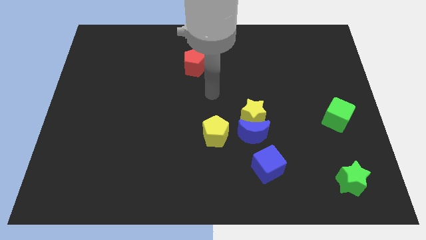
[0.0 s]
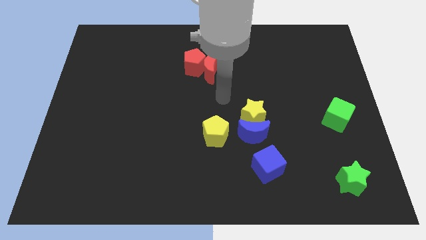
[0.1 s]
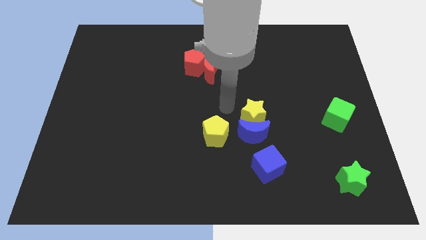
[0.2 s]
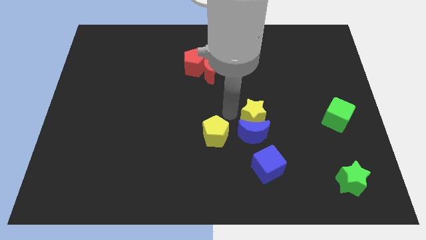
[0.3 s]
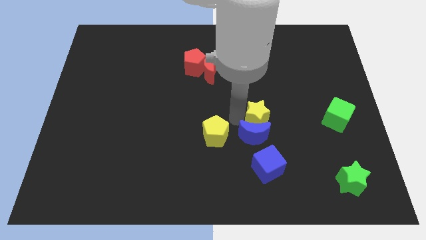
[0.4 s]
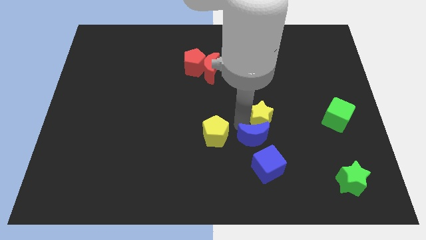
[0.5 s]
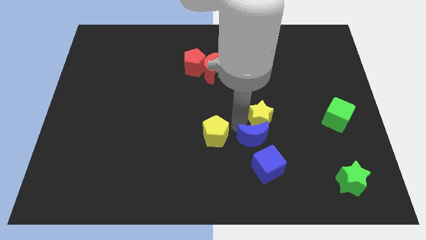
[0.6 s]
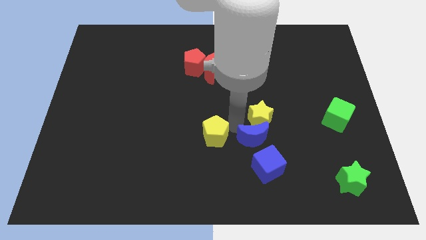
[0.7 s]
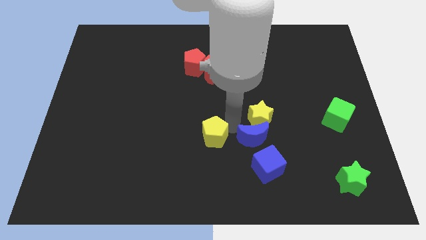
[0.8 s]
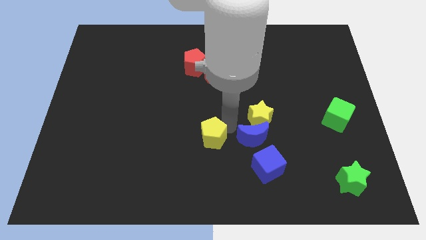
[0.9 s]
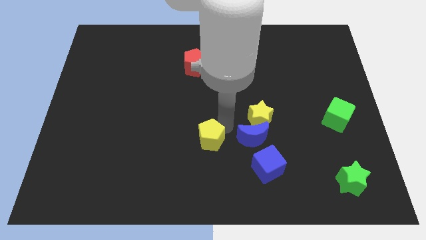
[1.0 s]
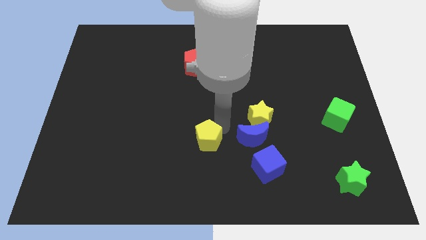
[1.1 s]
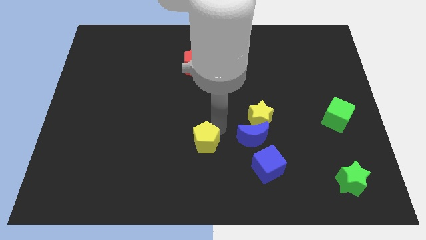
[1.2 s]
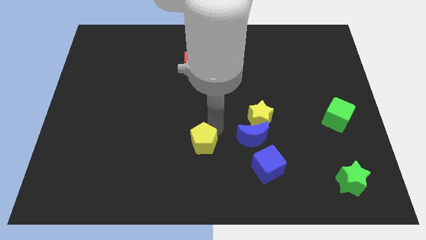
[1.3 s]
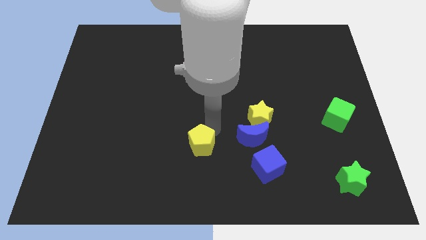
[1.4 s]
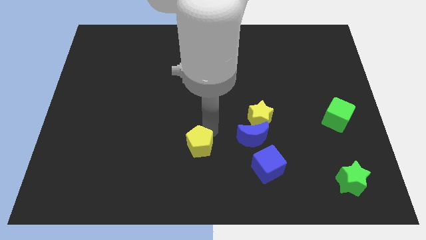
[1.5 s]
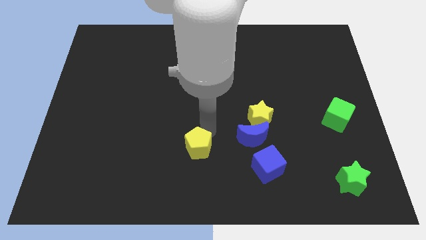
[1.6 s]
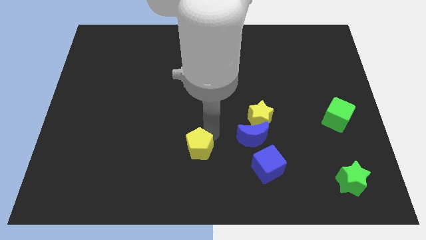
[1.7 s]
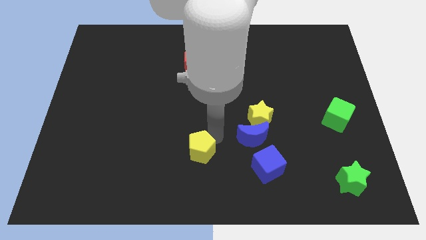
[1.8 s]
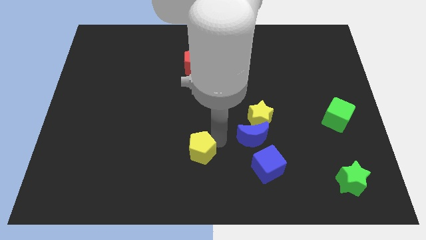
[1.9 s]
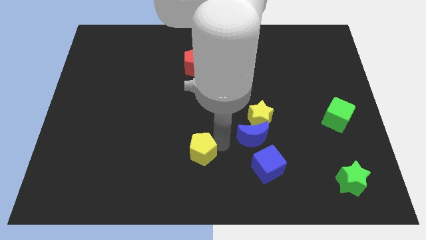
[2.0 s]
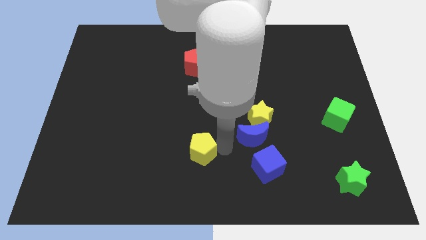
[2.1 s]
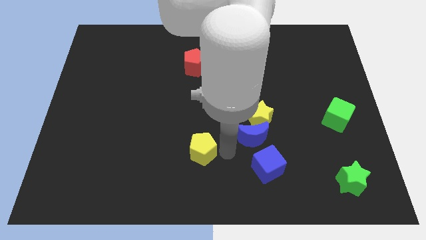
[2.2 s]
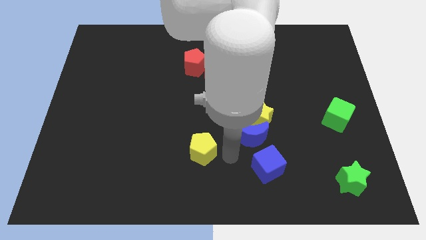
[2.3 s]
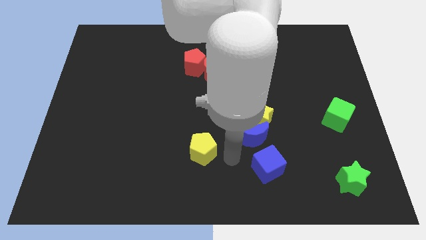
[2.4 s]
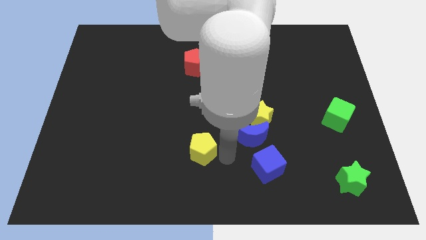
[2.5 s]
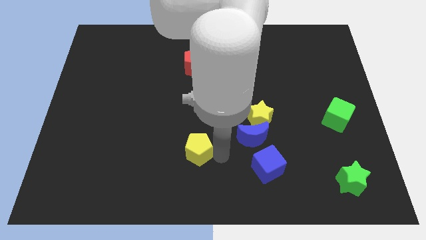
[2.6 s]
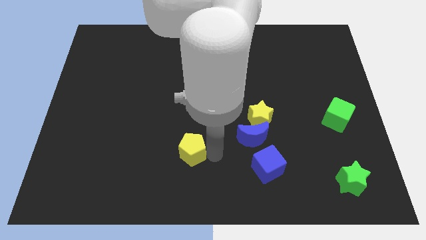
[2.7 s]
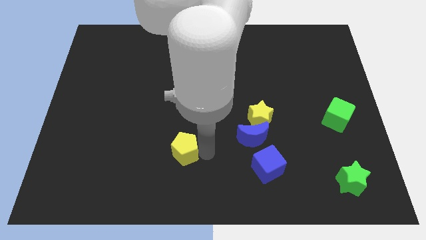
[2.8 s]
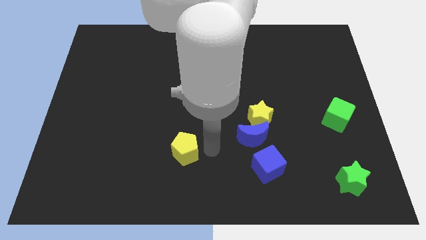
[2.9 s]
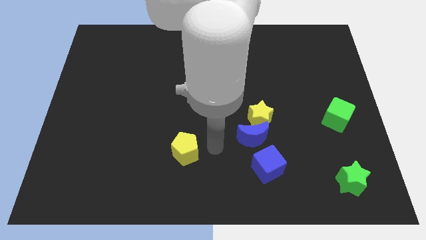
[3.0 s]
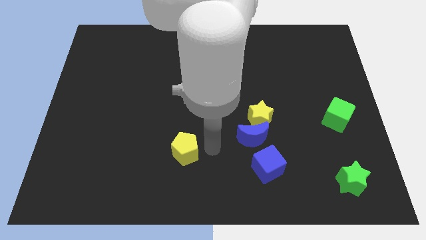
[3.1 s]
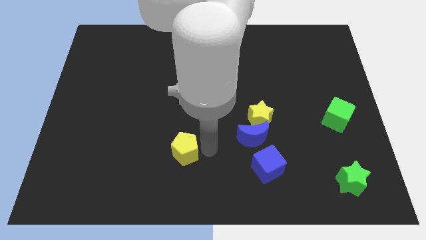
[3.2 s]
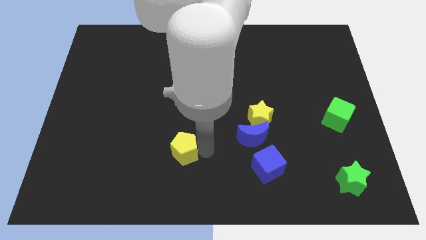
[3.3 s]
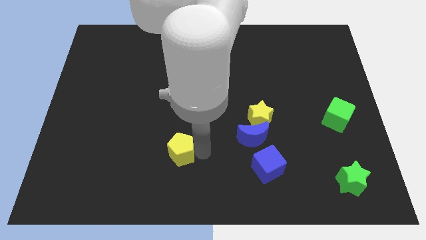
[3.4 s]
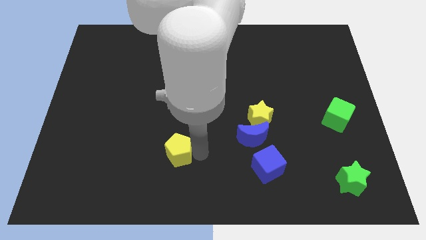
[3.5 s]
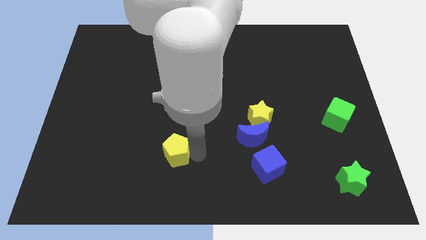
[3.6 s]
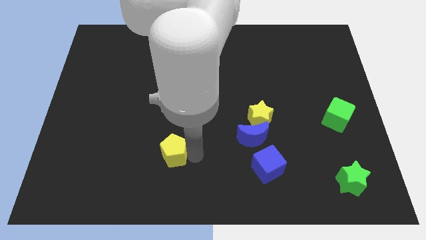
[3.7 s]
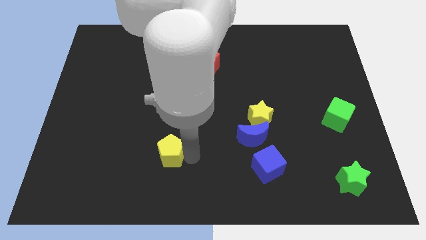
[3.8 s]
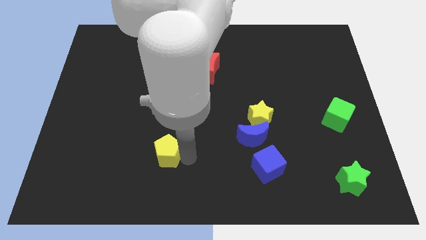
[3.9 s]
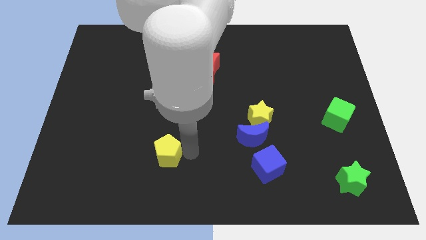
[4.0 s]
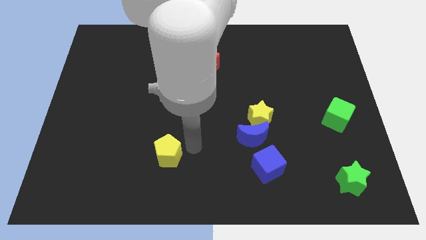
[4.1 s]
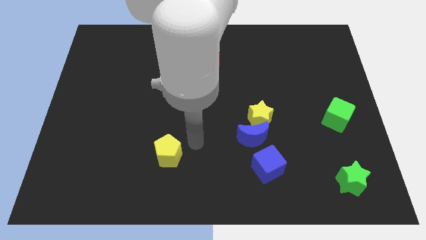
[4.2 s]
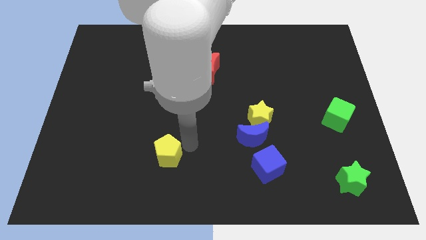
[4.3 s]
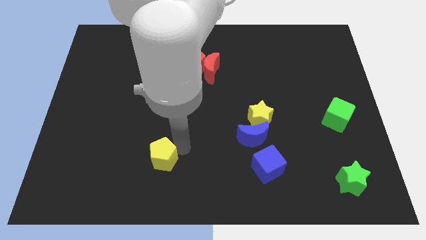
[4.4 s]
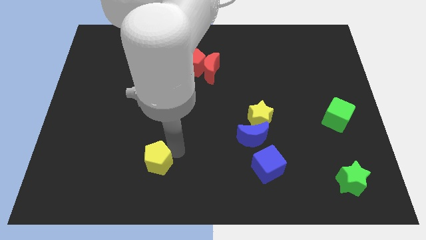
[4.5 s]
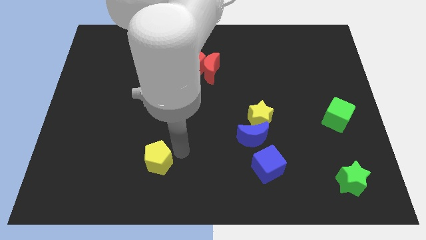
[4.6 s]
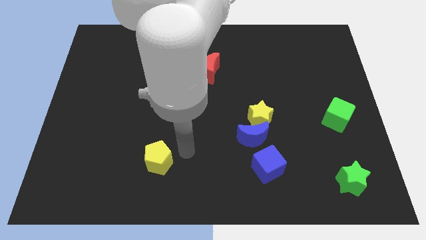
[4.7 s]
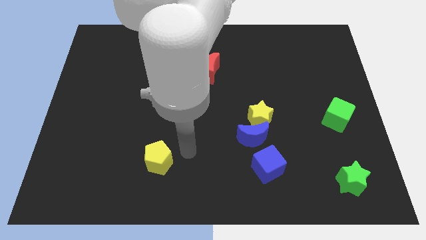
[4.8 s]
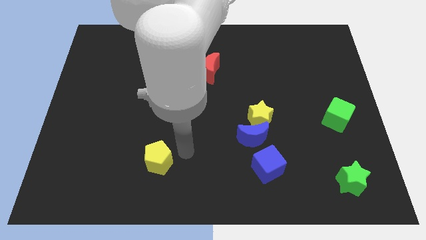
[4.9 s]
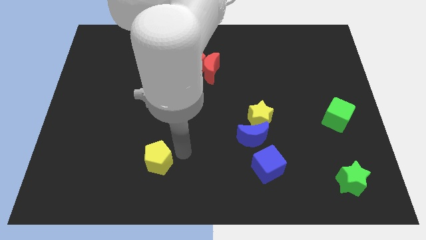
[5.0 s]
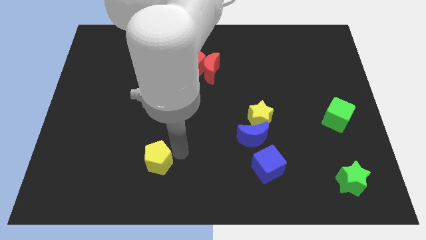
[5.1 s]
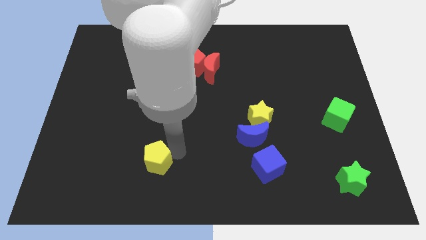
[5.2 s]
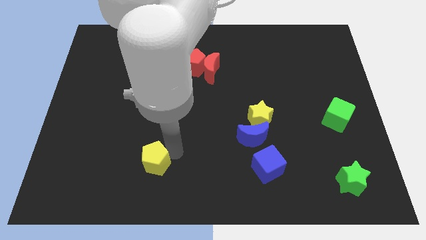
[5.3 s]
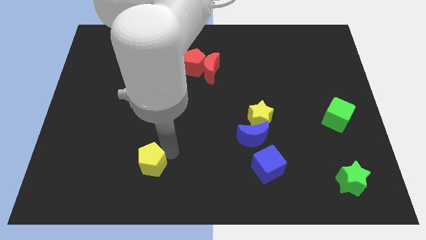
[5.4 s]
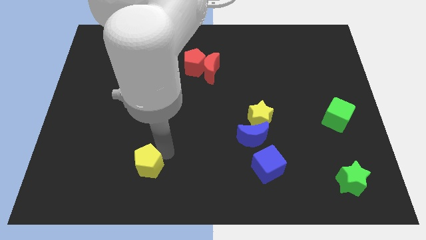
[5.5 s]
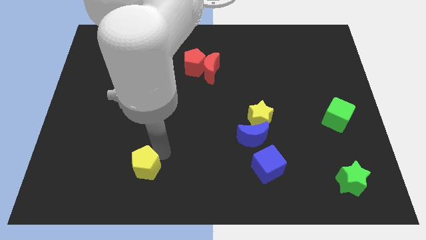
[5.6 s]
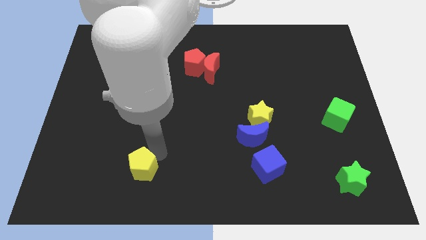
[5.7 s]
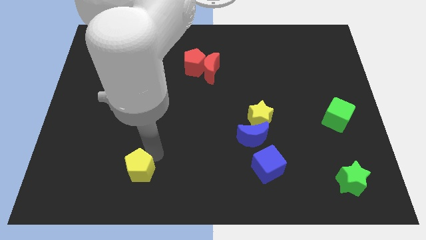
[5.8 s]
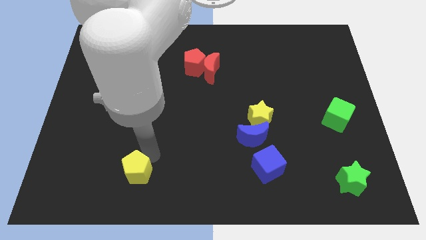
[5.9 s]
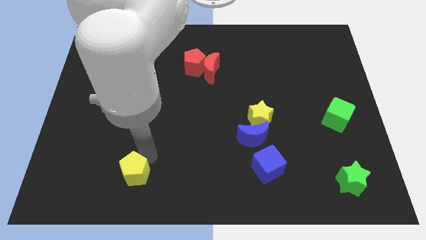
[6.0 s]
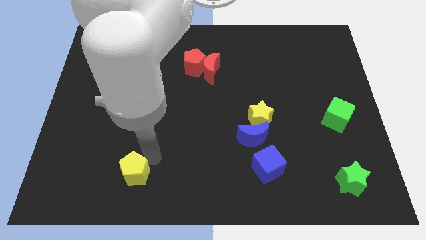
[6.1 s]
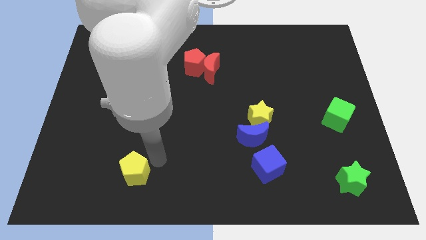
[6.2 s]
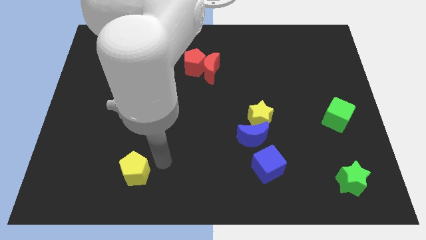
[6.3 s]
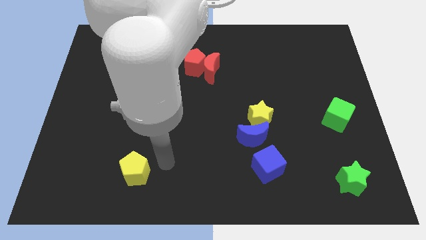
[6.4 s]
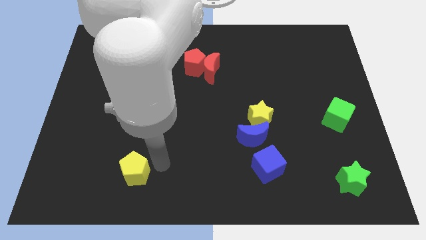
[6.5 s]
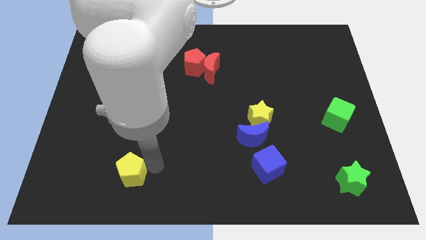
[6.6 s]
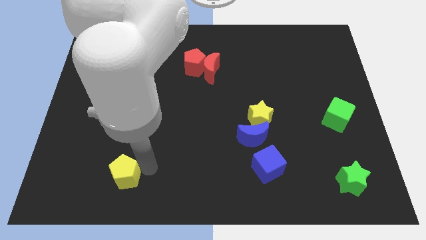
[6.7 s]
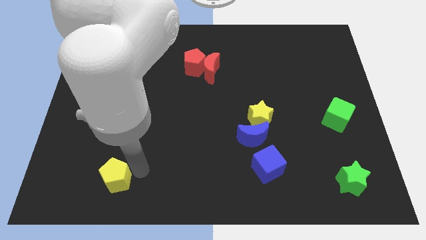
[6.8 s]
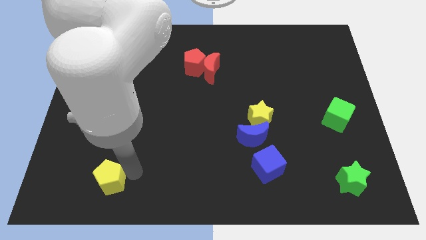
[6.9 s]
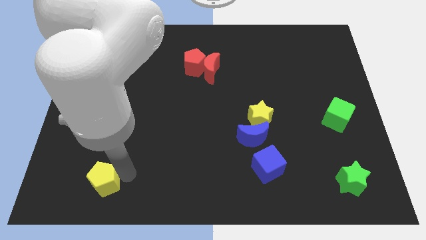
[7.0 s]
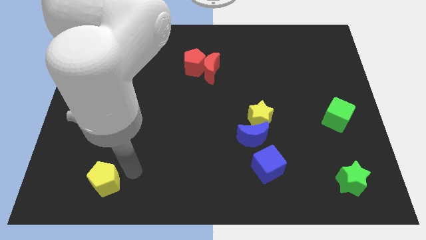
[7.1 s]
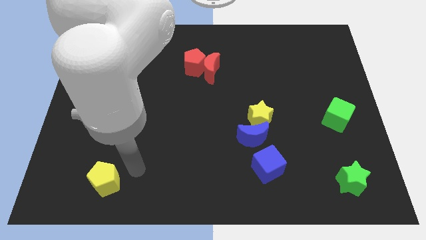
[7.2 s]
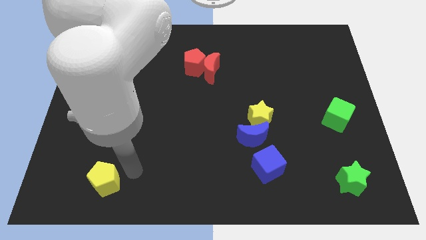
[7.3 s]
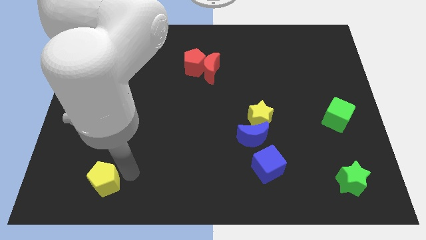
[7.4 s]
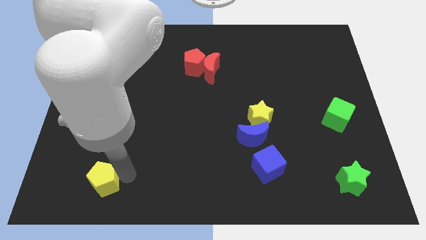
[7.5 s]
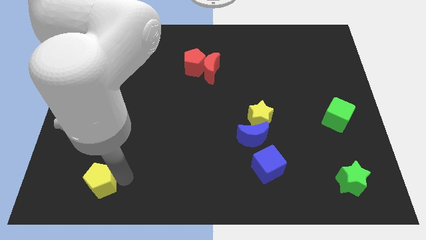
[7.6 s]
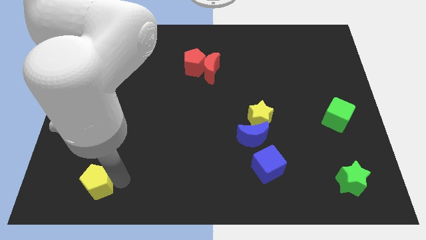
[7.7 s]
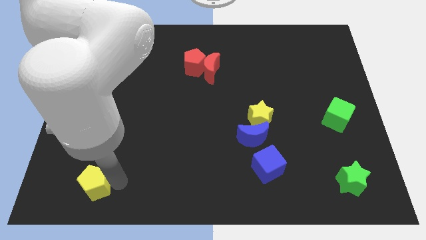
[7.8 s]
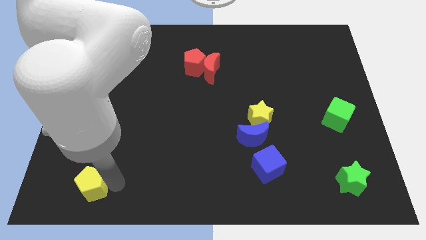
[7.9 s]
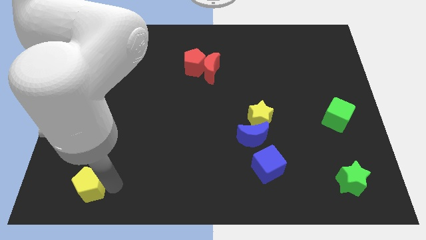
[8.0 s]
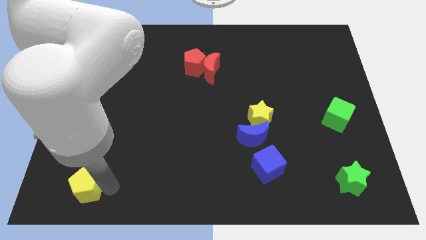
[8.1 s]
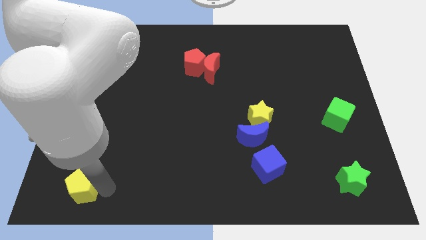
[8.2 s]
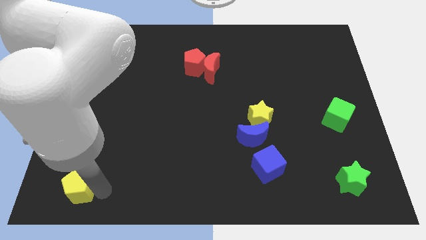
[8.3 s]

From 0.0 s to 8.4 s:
slide the yellow pentagon to the bottom left corner
